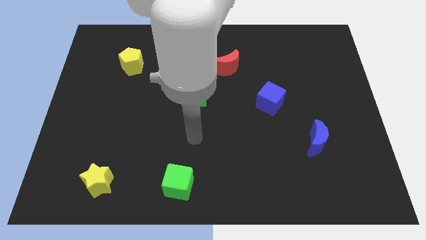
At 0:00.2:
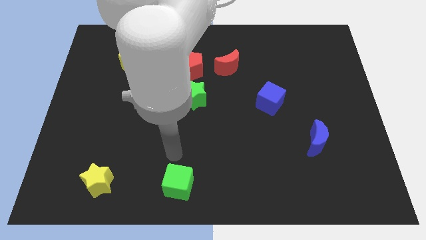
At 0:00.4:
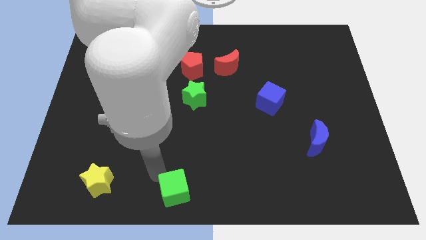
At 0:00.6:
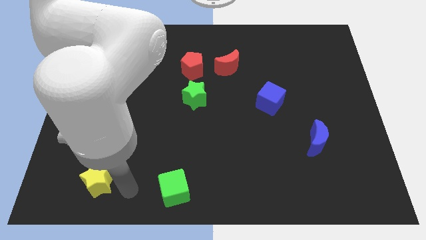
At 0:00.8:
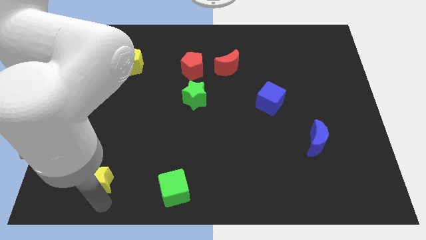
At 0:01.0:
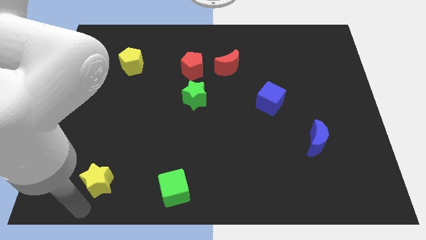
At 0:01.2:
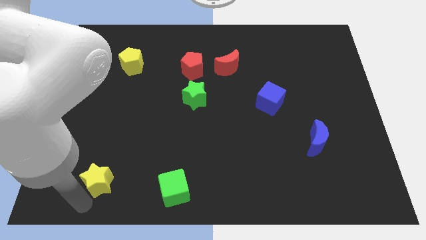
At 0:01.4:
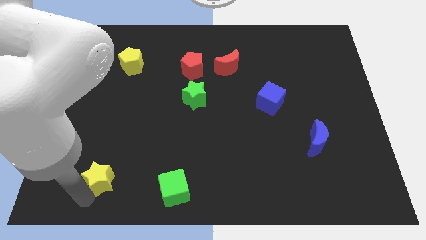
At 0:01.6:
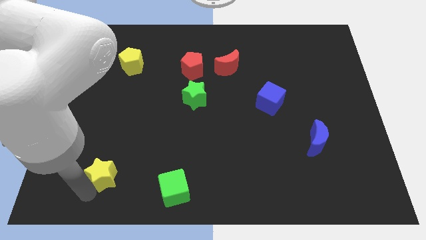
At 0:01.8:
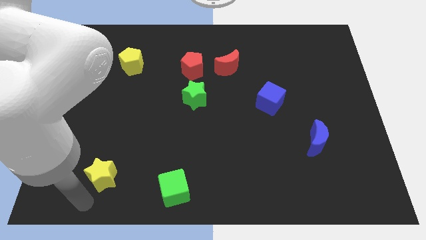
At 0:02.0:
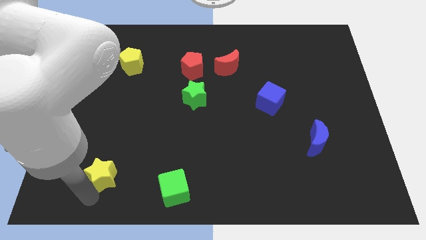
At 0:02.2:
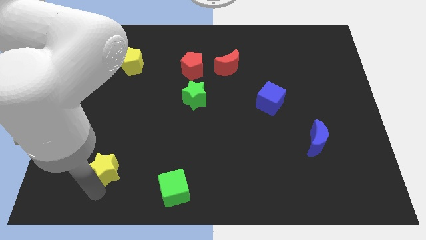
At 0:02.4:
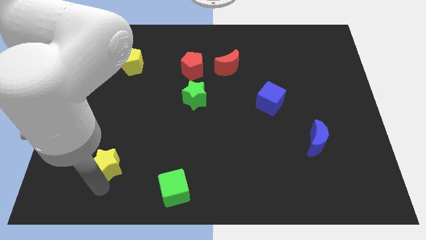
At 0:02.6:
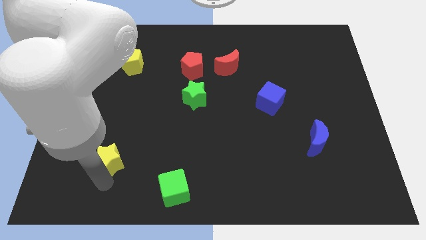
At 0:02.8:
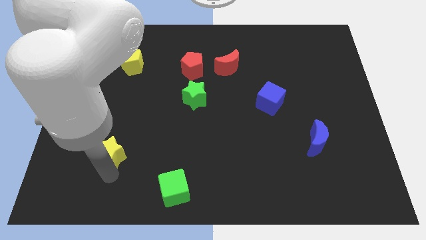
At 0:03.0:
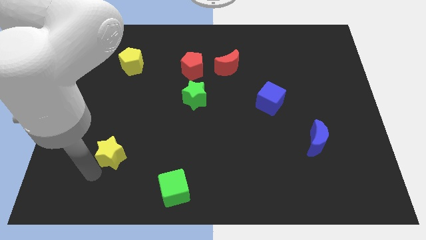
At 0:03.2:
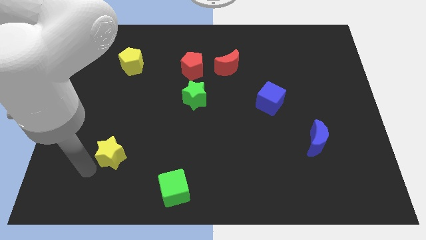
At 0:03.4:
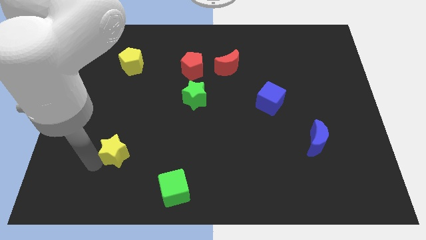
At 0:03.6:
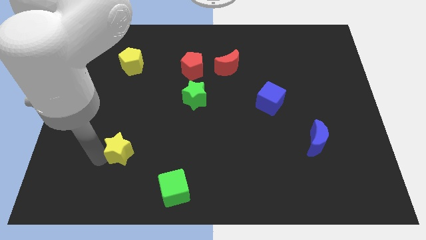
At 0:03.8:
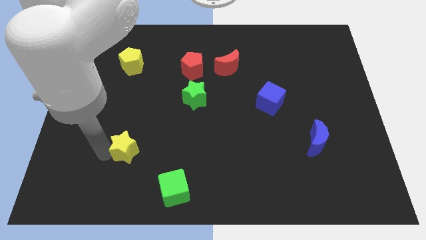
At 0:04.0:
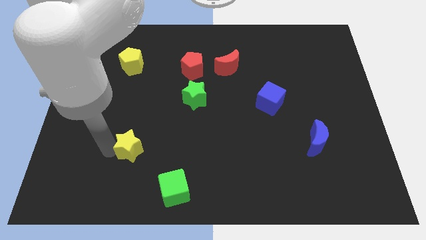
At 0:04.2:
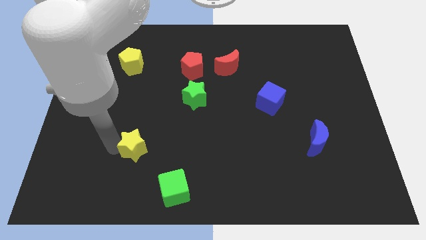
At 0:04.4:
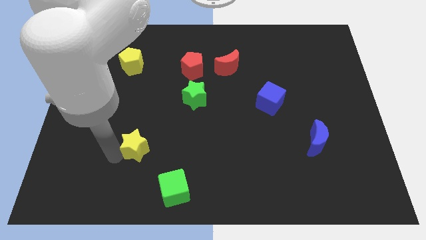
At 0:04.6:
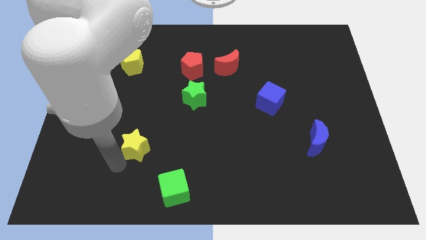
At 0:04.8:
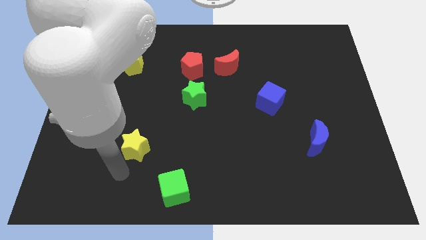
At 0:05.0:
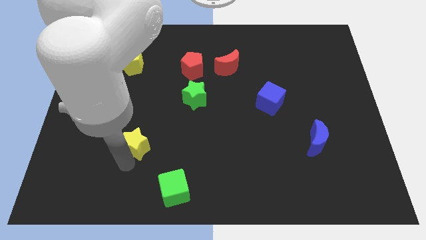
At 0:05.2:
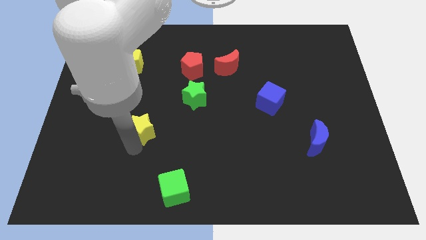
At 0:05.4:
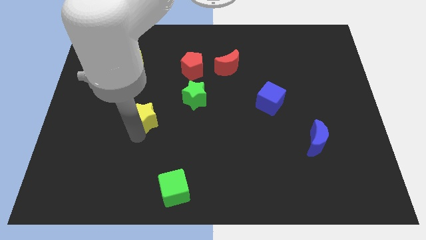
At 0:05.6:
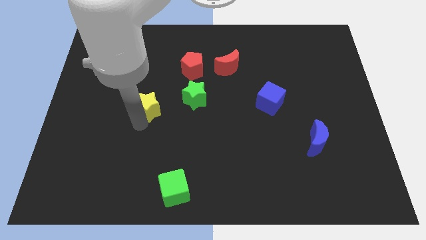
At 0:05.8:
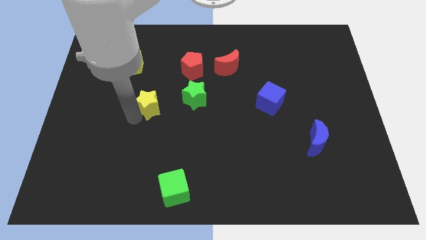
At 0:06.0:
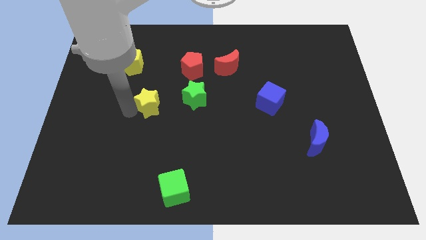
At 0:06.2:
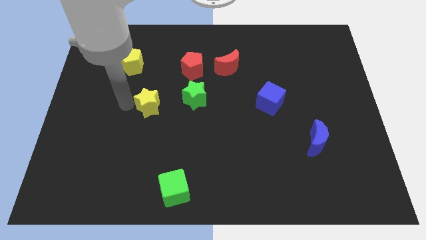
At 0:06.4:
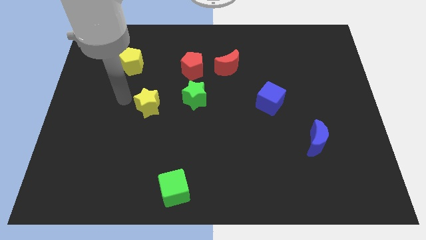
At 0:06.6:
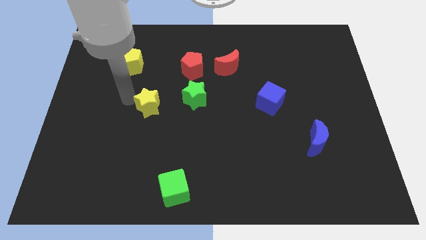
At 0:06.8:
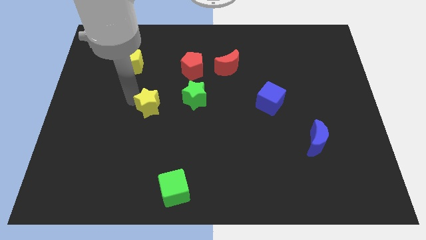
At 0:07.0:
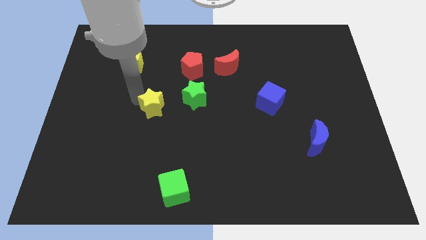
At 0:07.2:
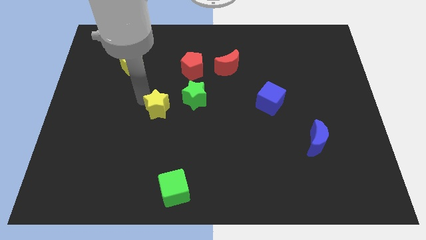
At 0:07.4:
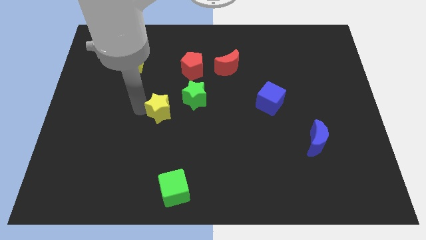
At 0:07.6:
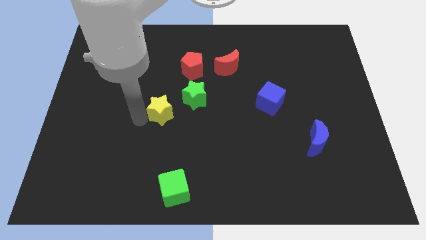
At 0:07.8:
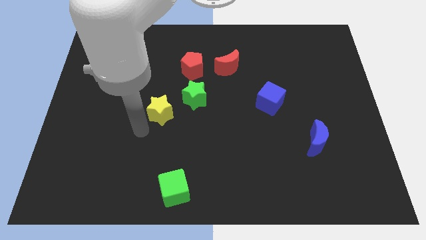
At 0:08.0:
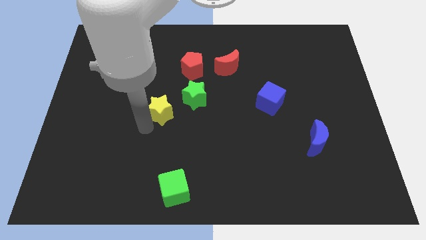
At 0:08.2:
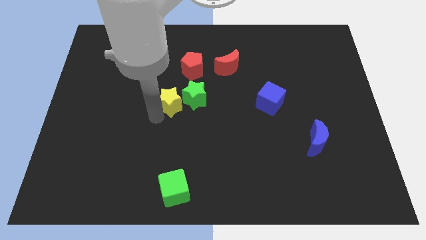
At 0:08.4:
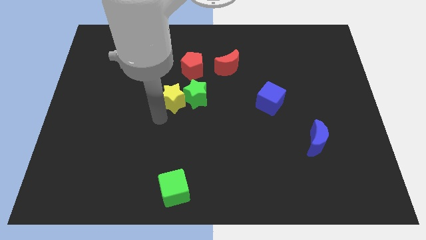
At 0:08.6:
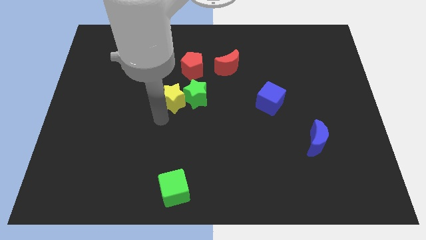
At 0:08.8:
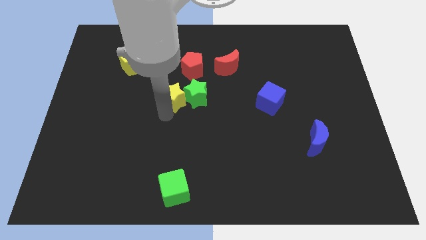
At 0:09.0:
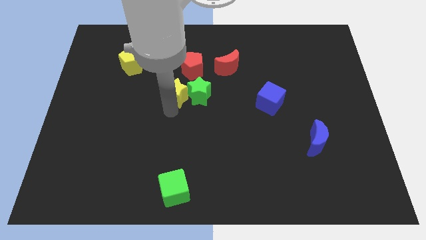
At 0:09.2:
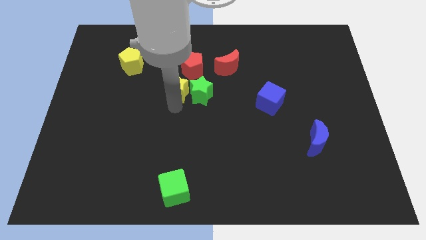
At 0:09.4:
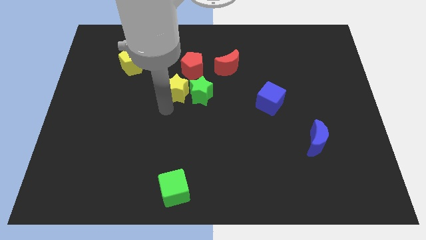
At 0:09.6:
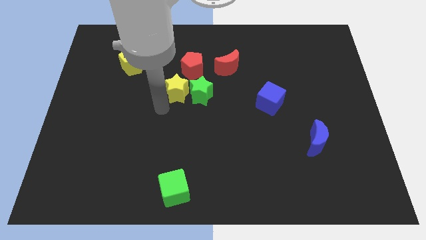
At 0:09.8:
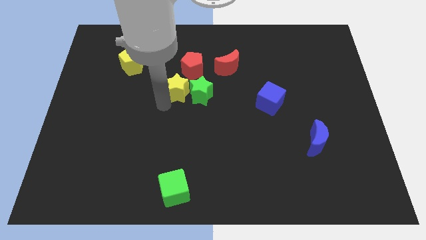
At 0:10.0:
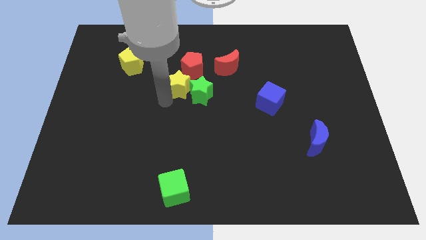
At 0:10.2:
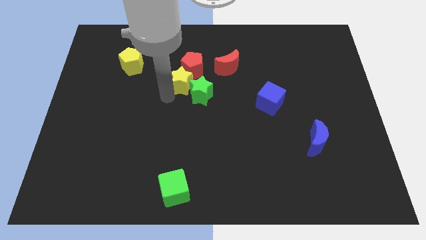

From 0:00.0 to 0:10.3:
slide the yellow star next to the red pentagon

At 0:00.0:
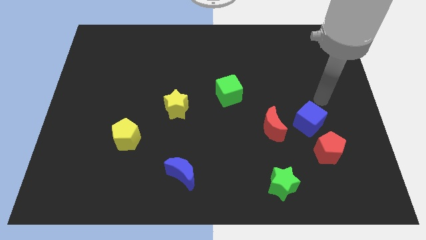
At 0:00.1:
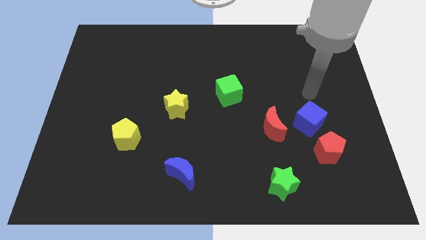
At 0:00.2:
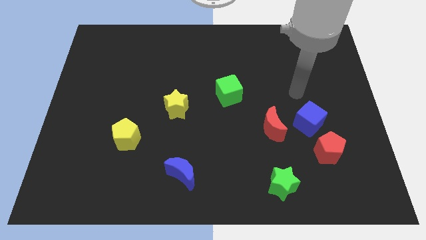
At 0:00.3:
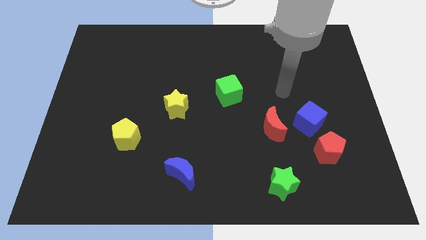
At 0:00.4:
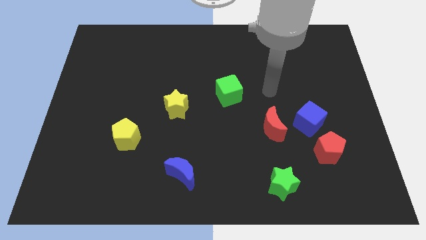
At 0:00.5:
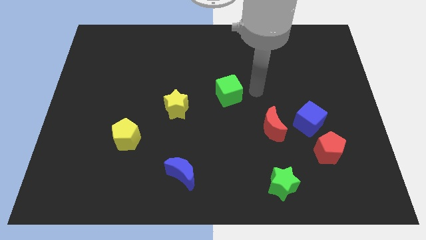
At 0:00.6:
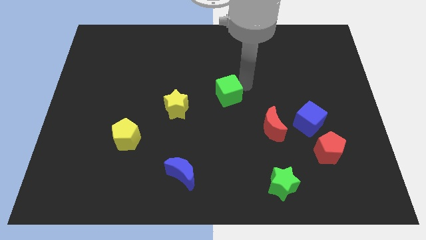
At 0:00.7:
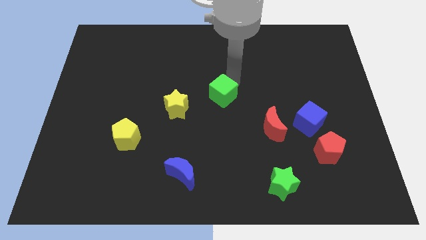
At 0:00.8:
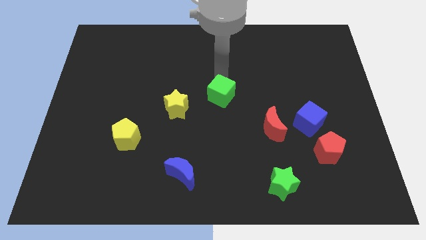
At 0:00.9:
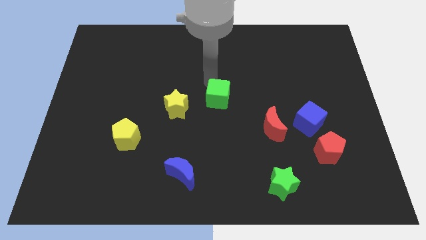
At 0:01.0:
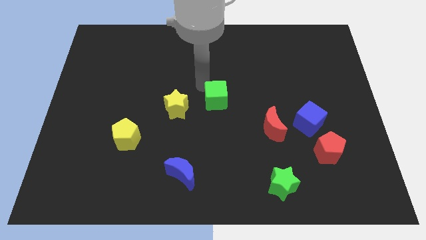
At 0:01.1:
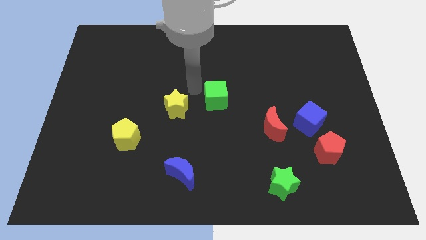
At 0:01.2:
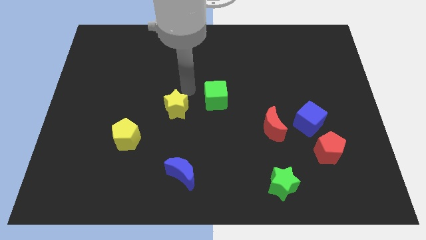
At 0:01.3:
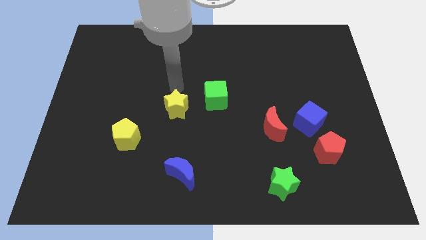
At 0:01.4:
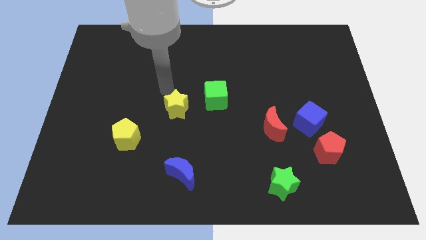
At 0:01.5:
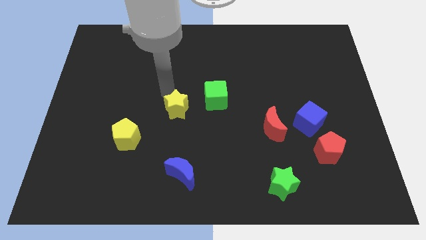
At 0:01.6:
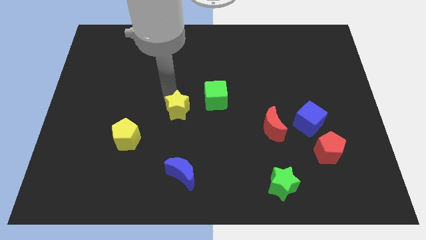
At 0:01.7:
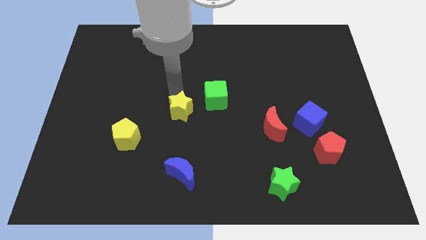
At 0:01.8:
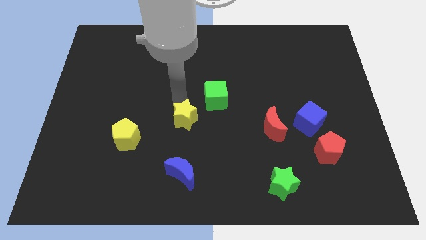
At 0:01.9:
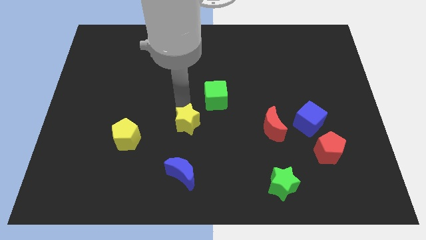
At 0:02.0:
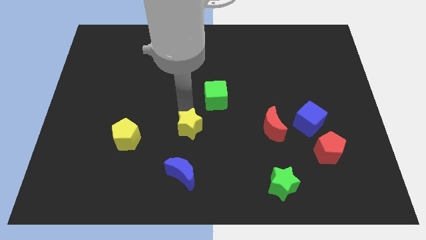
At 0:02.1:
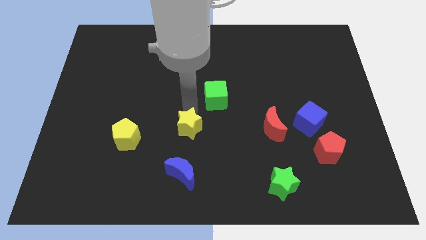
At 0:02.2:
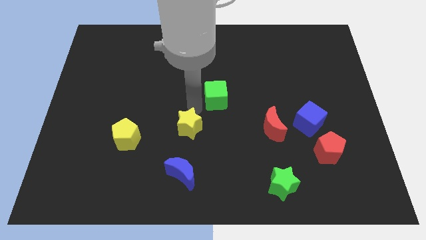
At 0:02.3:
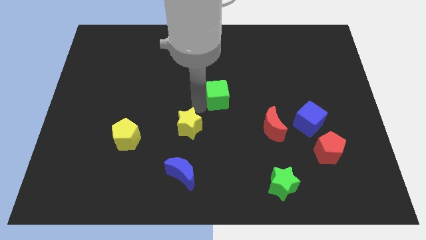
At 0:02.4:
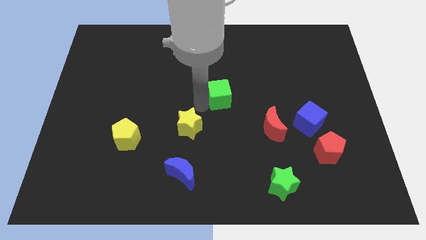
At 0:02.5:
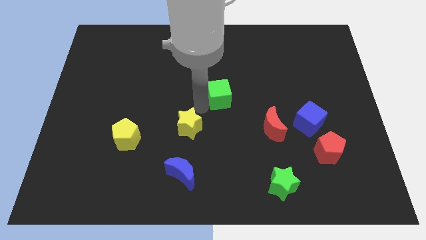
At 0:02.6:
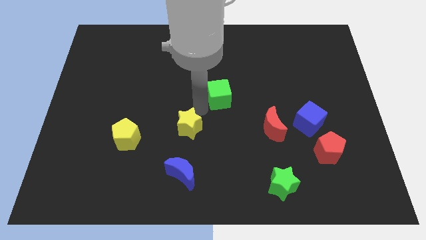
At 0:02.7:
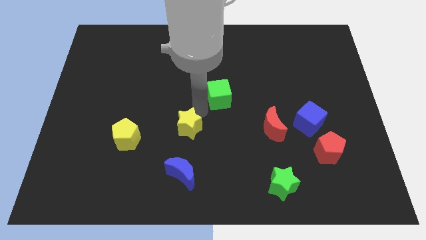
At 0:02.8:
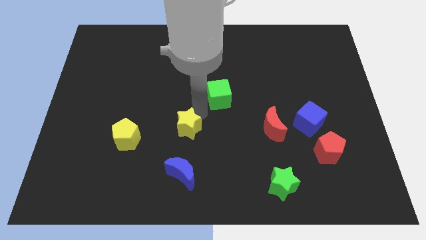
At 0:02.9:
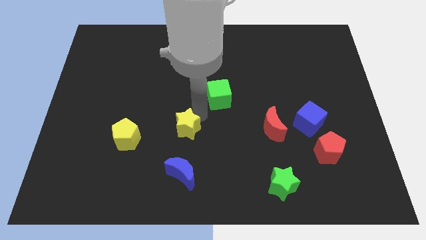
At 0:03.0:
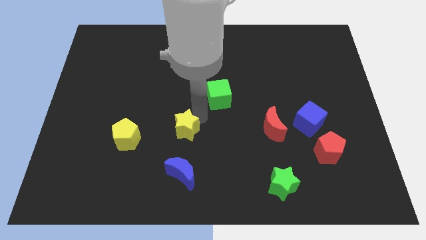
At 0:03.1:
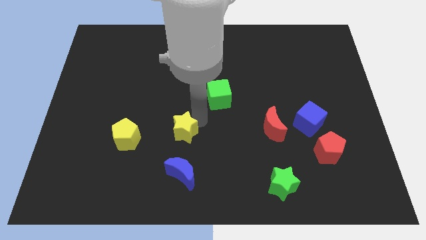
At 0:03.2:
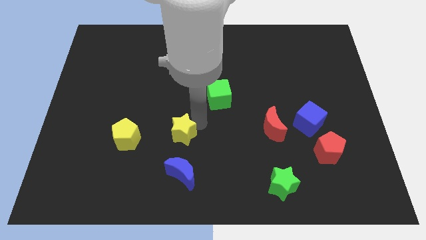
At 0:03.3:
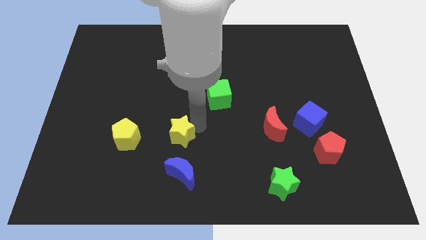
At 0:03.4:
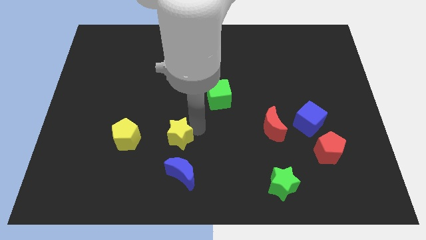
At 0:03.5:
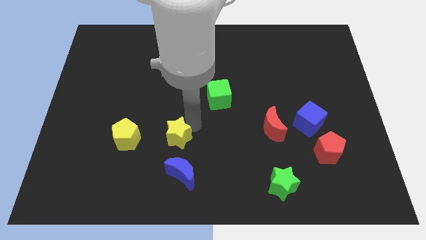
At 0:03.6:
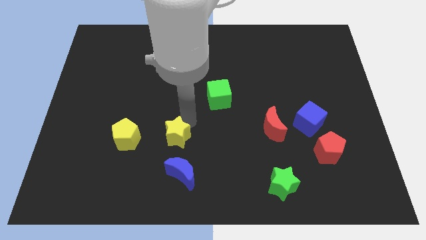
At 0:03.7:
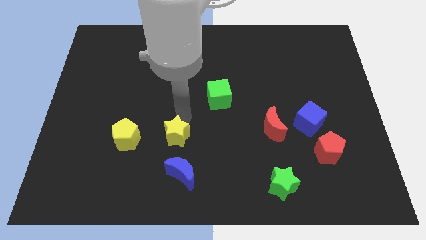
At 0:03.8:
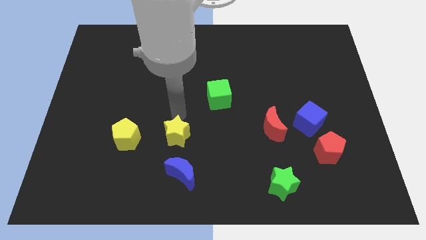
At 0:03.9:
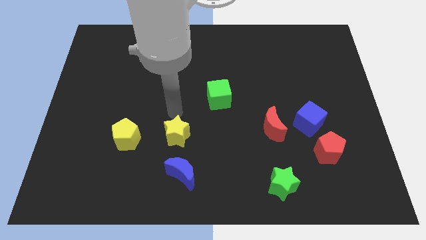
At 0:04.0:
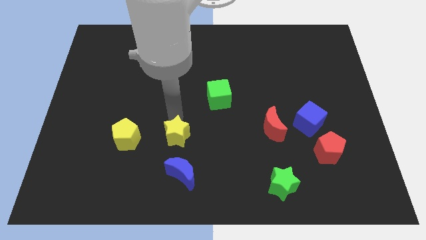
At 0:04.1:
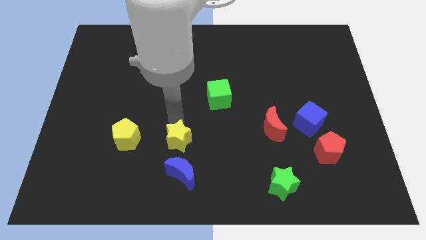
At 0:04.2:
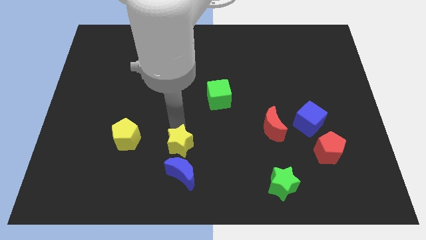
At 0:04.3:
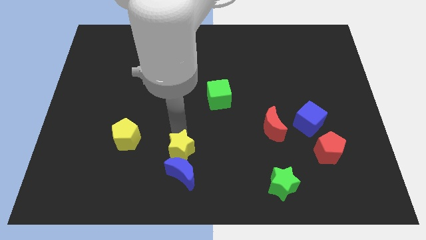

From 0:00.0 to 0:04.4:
move the yellow star to the blue moon
